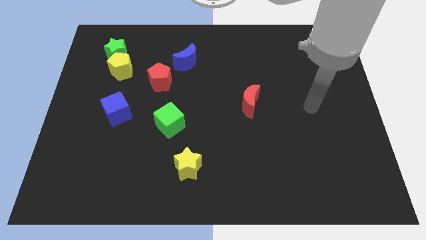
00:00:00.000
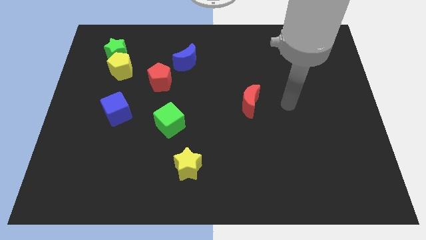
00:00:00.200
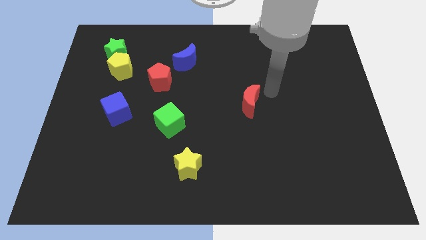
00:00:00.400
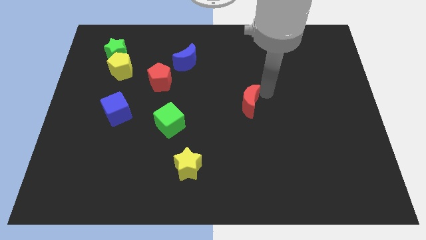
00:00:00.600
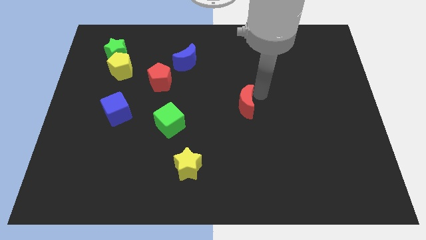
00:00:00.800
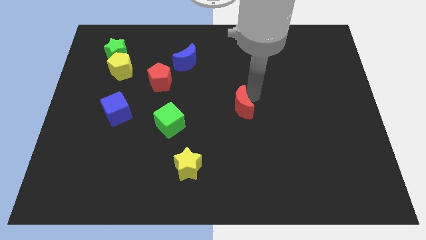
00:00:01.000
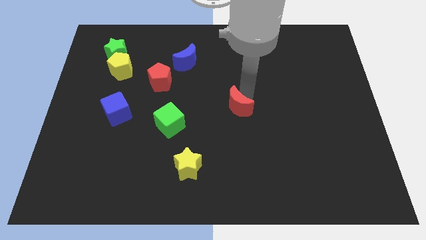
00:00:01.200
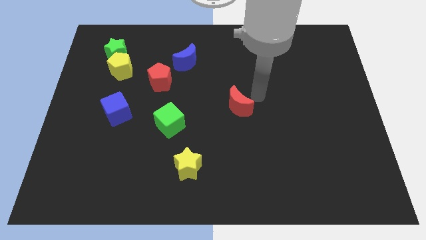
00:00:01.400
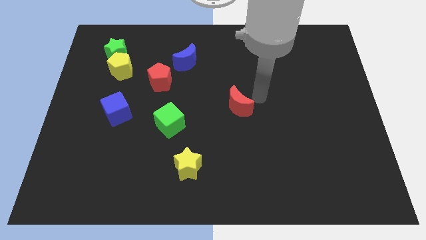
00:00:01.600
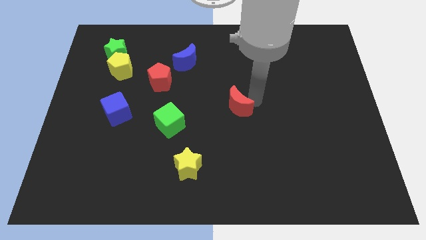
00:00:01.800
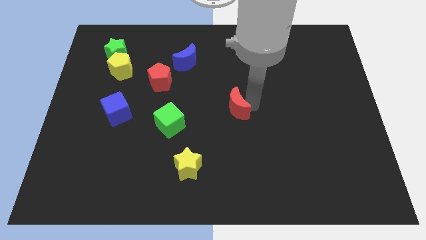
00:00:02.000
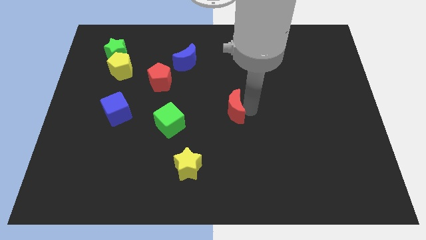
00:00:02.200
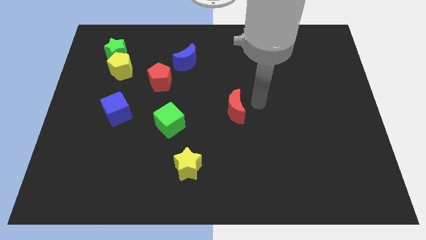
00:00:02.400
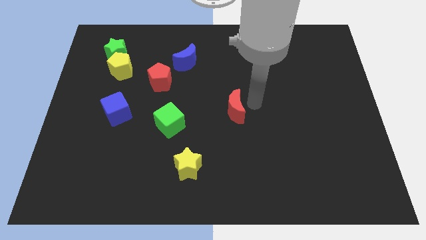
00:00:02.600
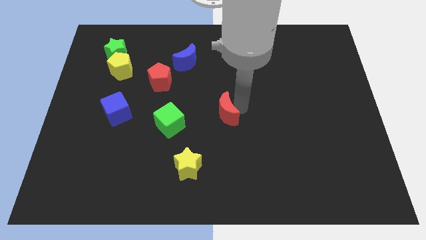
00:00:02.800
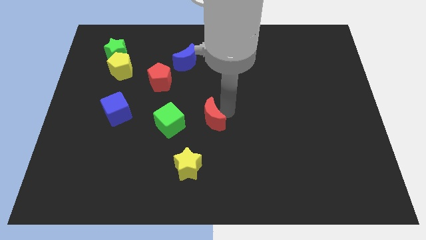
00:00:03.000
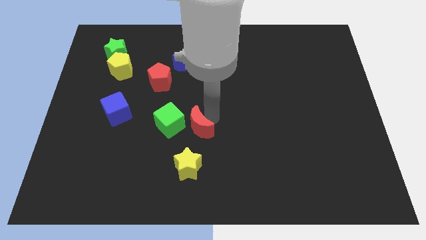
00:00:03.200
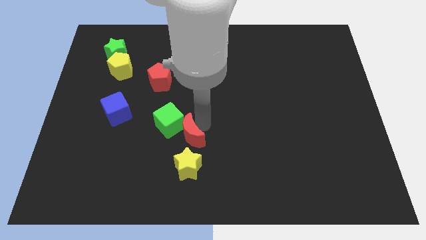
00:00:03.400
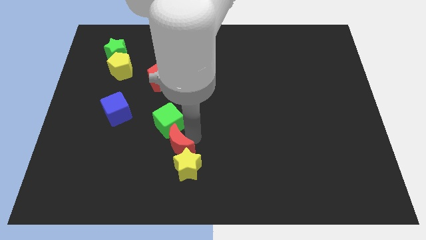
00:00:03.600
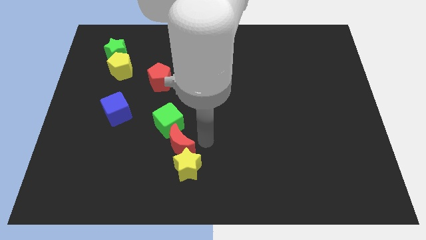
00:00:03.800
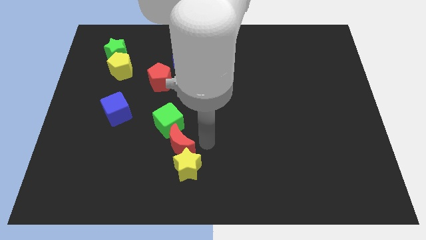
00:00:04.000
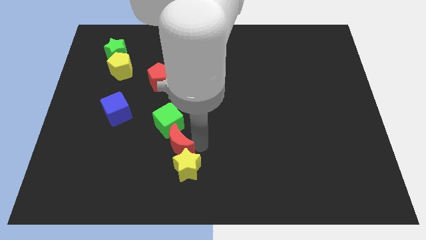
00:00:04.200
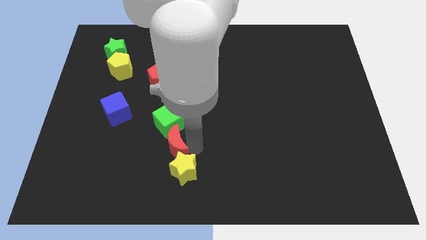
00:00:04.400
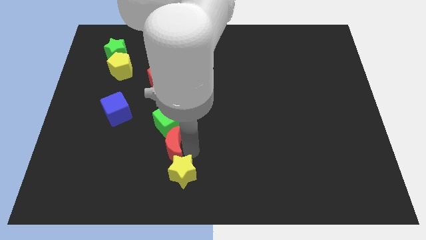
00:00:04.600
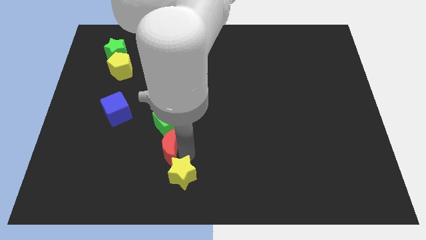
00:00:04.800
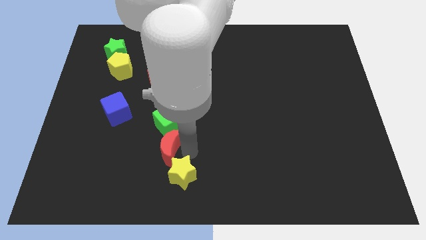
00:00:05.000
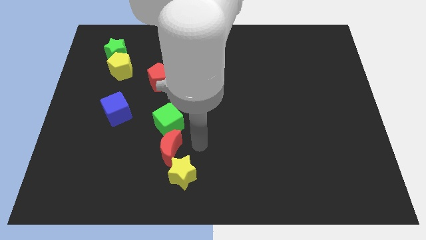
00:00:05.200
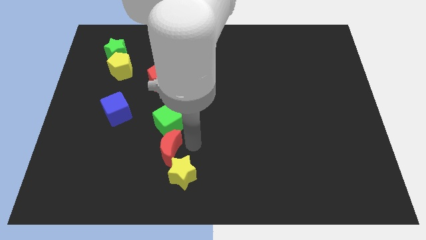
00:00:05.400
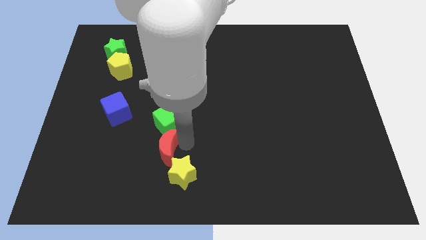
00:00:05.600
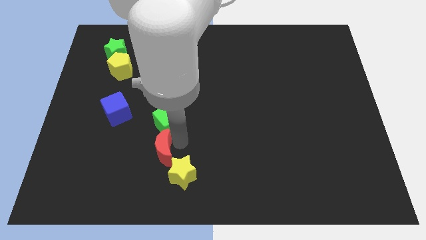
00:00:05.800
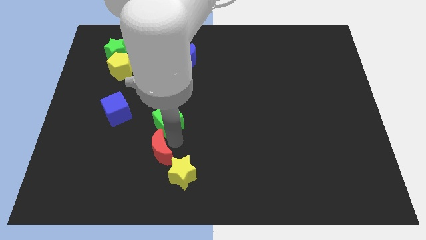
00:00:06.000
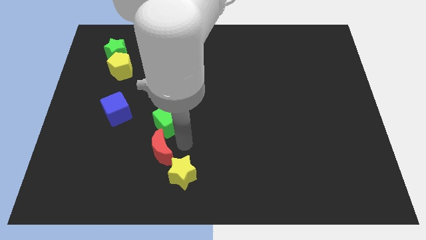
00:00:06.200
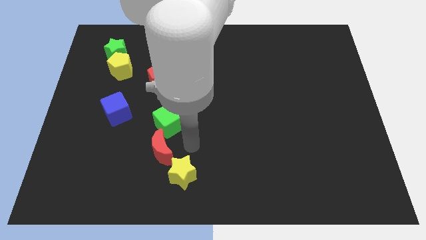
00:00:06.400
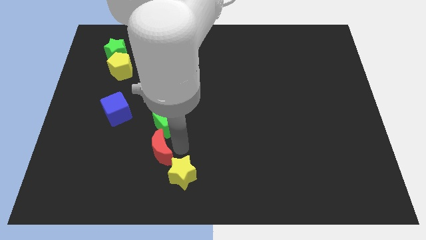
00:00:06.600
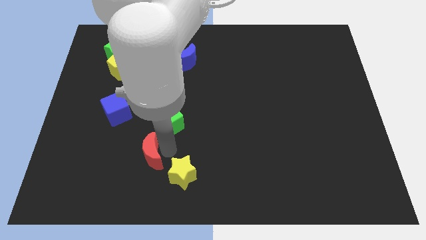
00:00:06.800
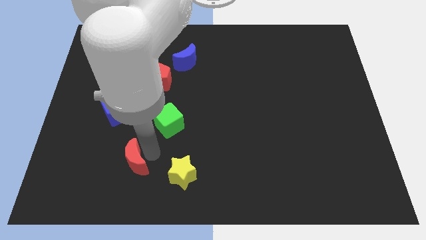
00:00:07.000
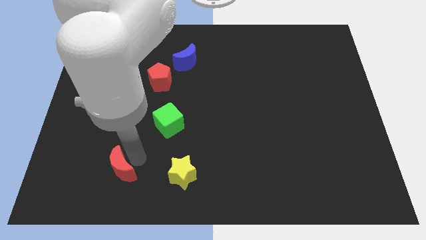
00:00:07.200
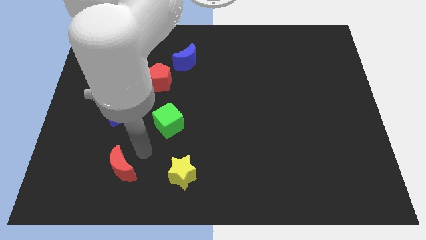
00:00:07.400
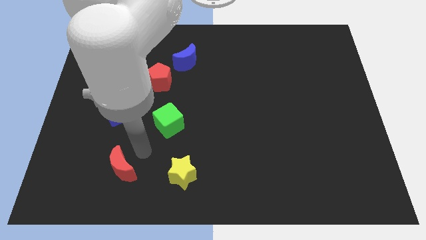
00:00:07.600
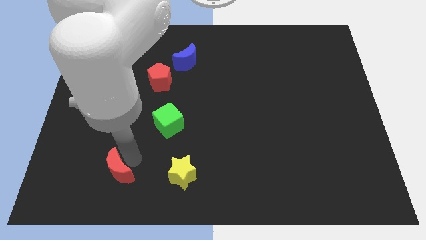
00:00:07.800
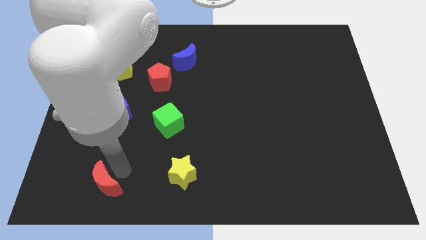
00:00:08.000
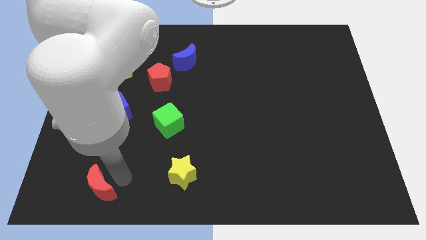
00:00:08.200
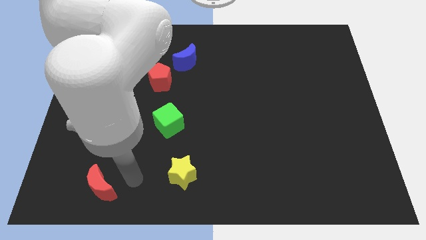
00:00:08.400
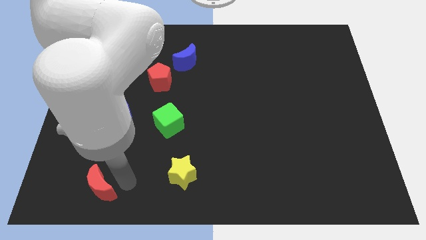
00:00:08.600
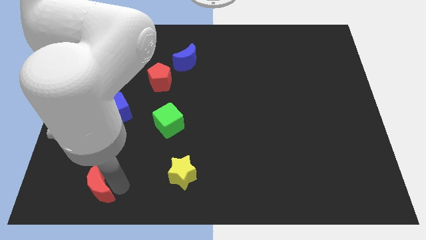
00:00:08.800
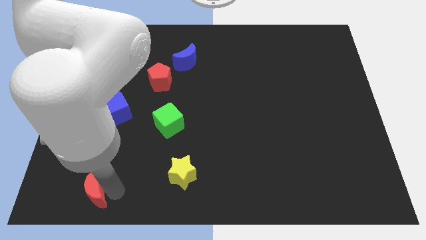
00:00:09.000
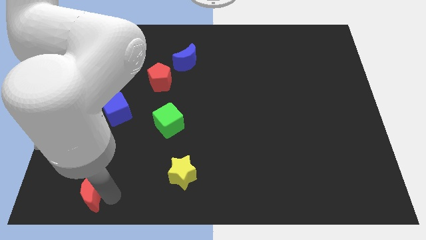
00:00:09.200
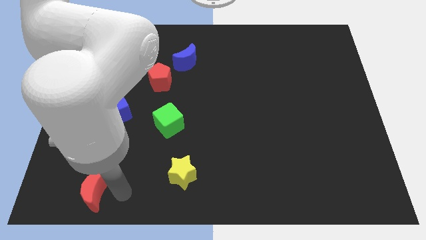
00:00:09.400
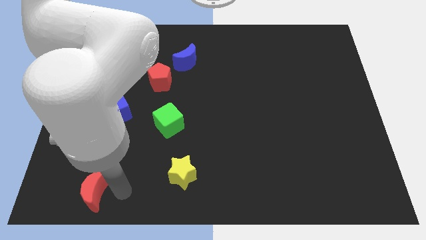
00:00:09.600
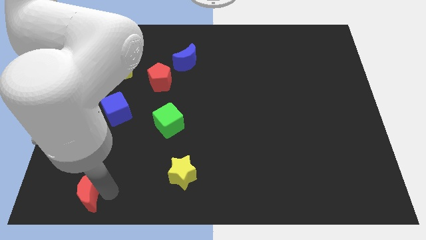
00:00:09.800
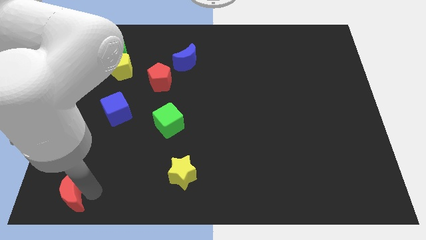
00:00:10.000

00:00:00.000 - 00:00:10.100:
slide the red moon to the bottom left of the board

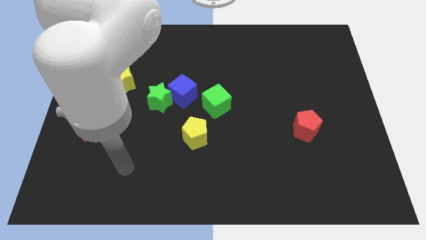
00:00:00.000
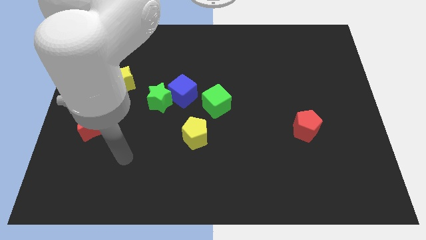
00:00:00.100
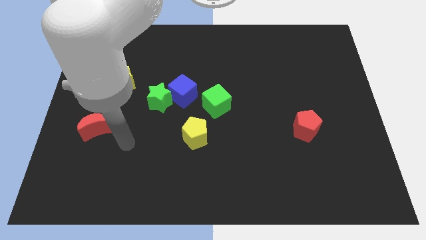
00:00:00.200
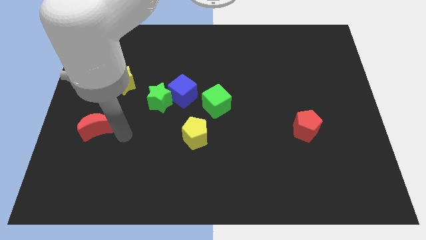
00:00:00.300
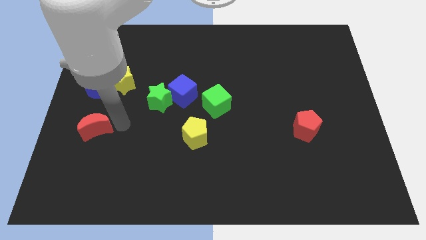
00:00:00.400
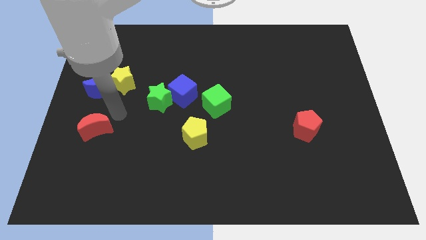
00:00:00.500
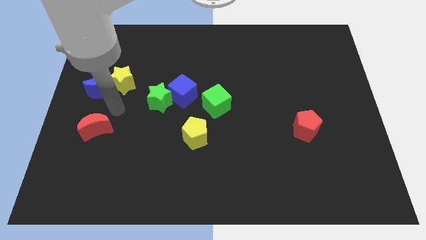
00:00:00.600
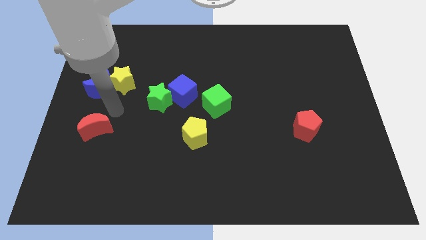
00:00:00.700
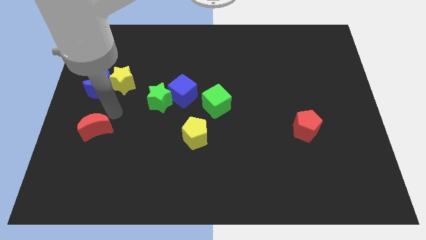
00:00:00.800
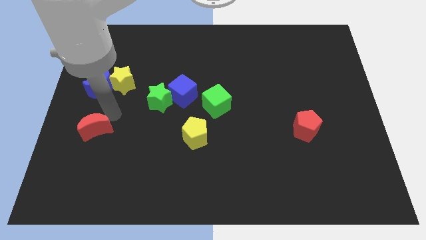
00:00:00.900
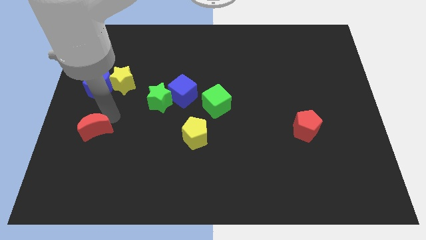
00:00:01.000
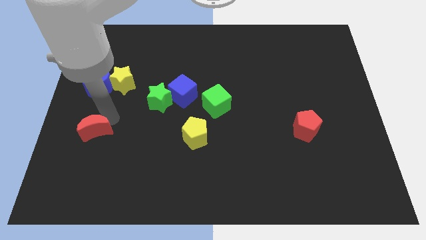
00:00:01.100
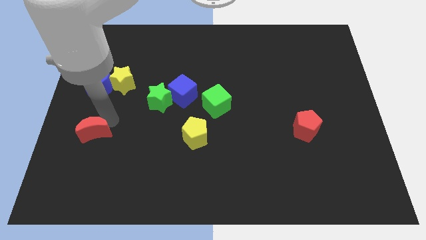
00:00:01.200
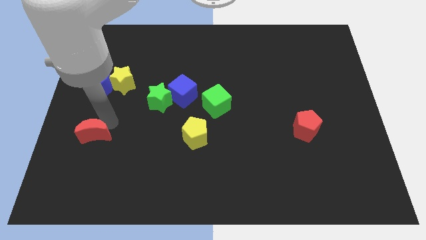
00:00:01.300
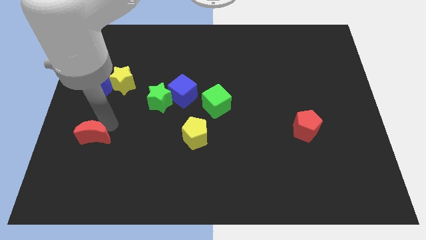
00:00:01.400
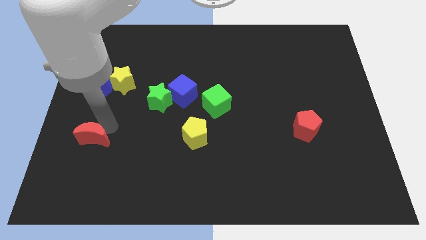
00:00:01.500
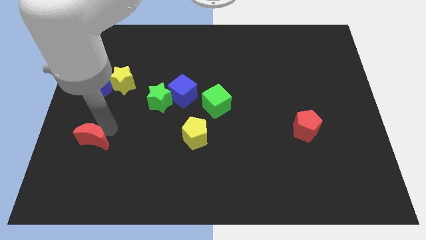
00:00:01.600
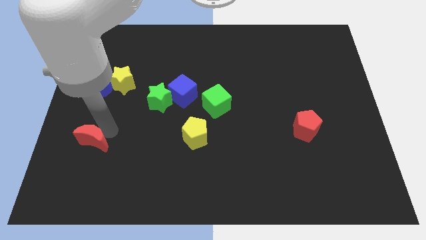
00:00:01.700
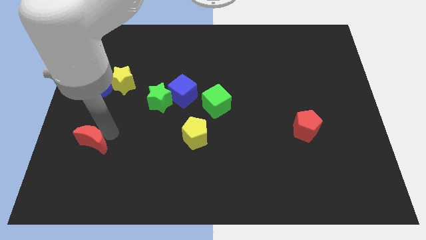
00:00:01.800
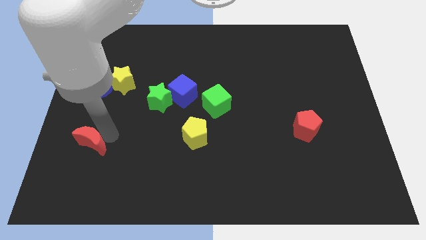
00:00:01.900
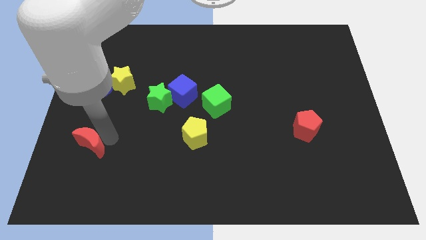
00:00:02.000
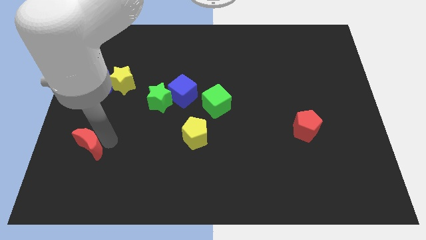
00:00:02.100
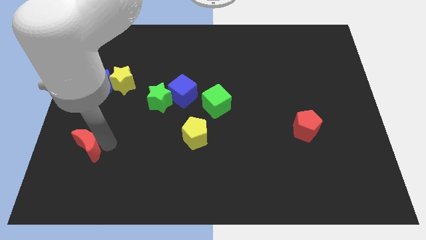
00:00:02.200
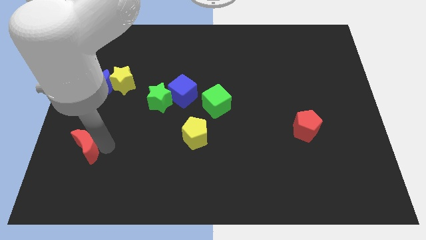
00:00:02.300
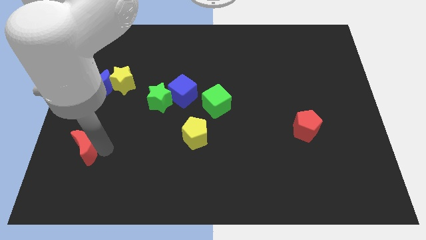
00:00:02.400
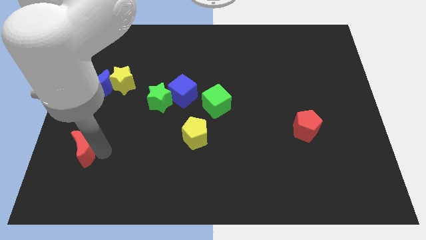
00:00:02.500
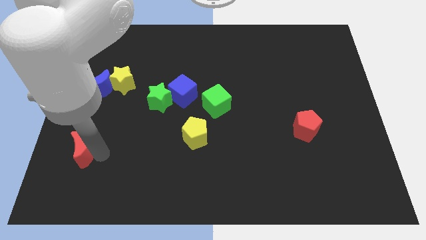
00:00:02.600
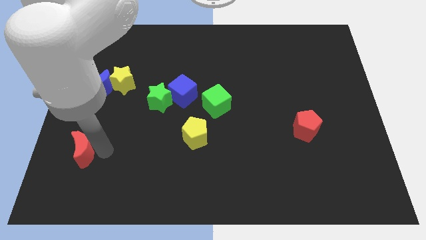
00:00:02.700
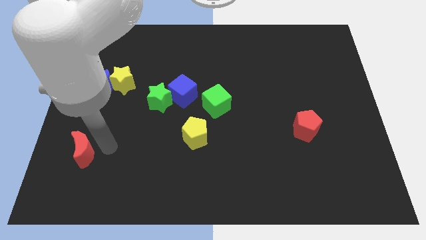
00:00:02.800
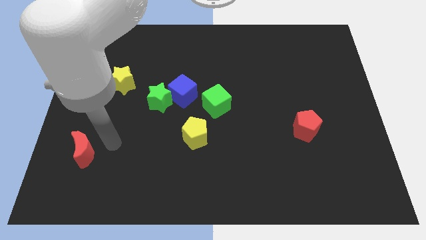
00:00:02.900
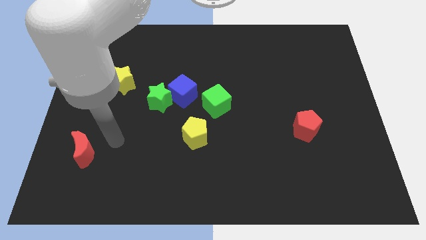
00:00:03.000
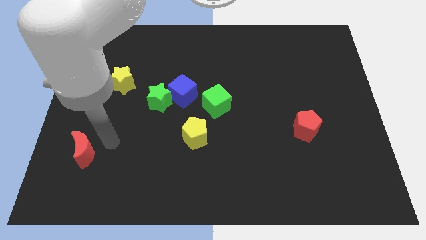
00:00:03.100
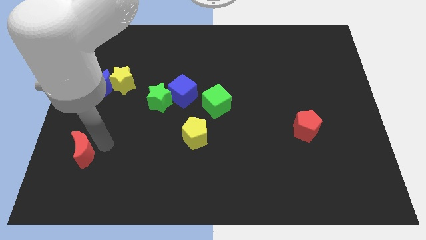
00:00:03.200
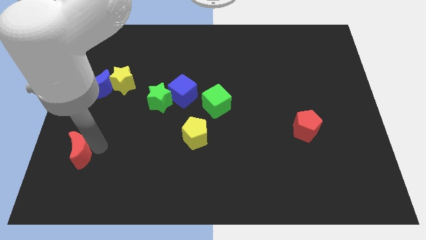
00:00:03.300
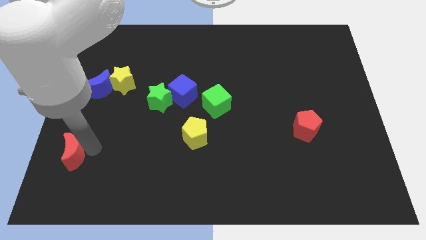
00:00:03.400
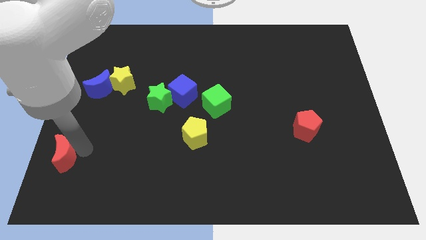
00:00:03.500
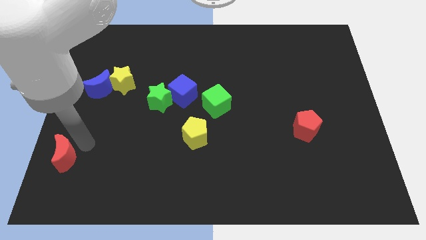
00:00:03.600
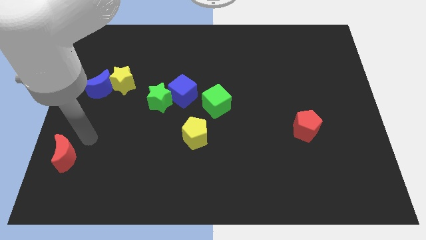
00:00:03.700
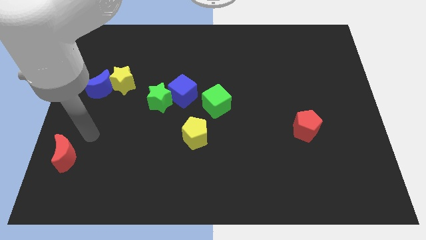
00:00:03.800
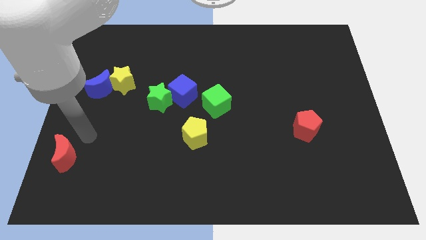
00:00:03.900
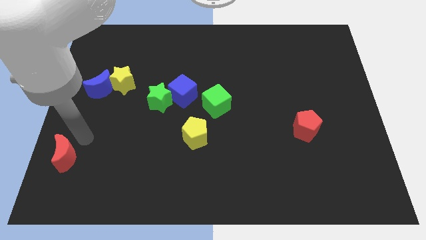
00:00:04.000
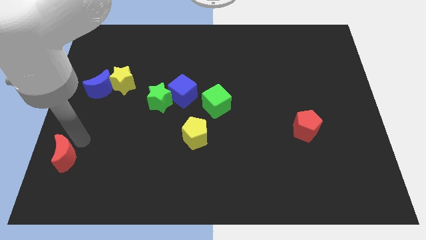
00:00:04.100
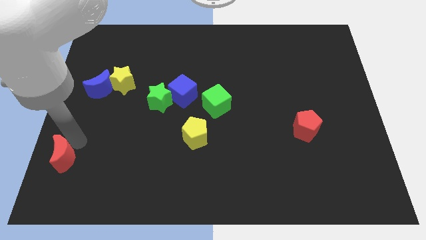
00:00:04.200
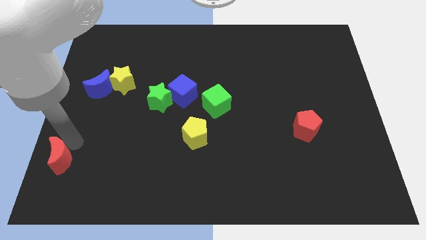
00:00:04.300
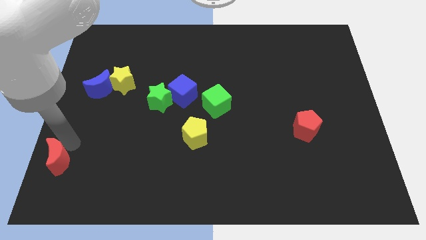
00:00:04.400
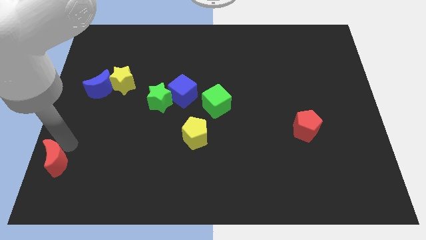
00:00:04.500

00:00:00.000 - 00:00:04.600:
move the red moon to the bottom left
